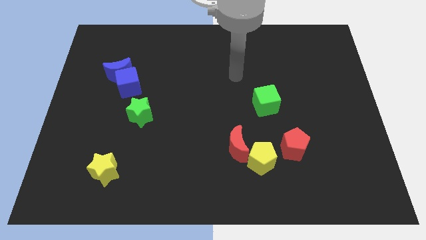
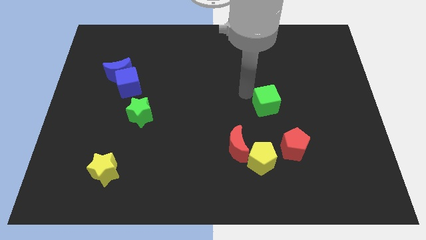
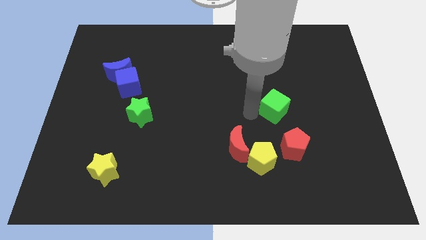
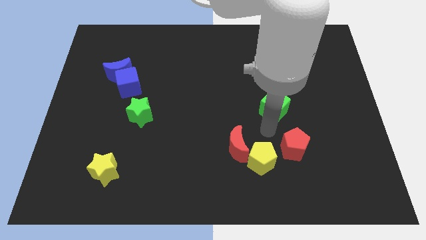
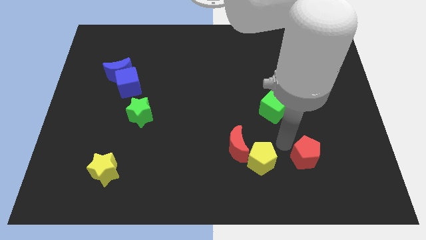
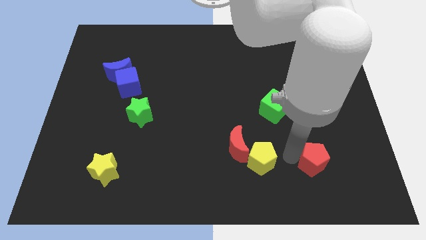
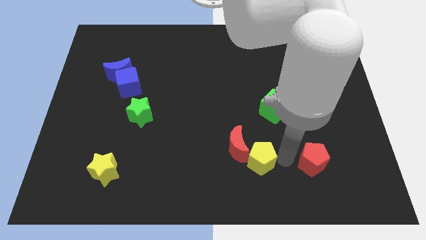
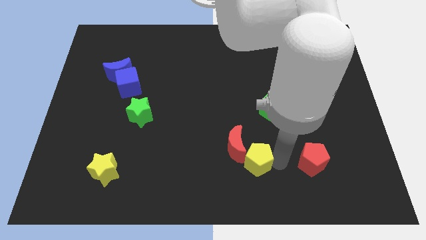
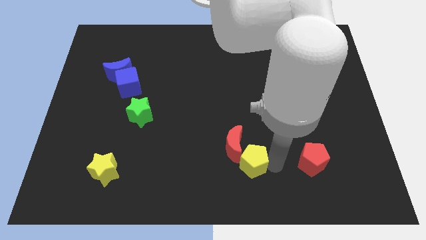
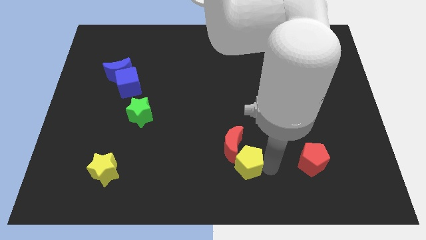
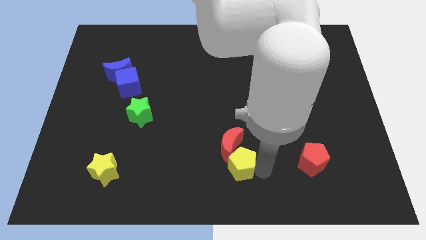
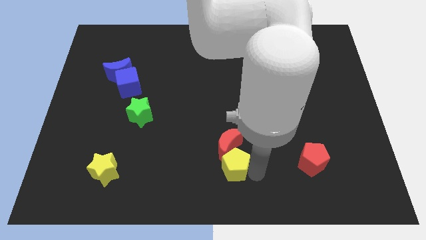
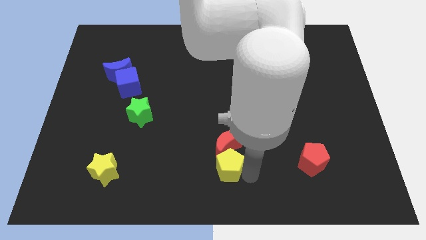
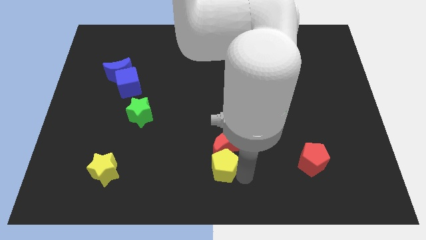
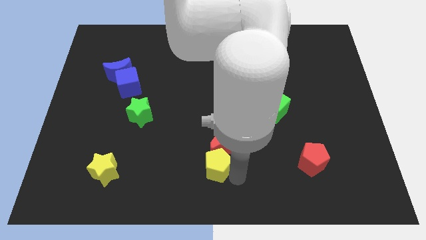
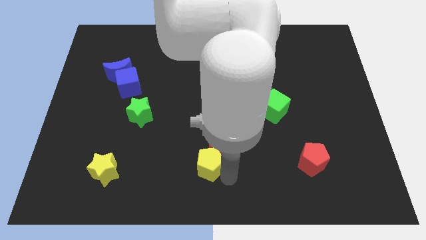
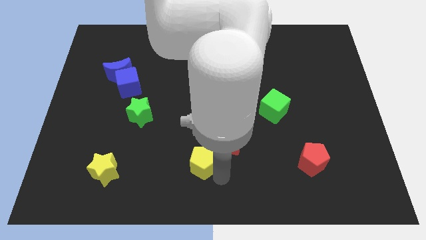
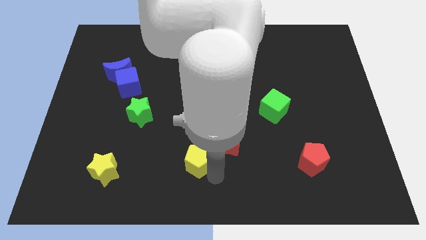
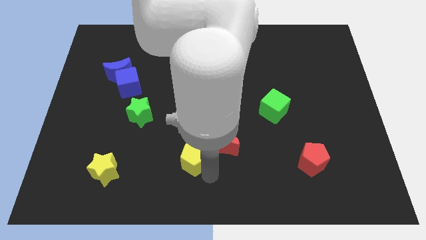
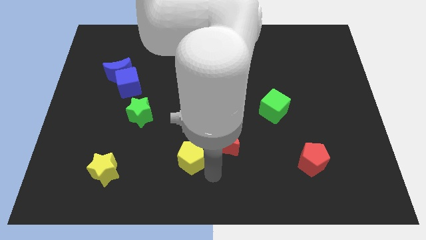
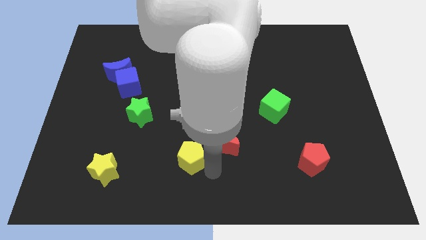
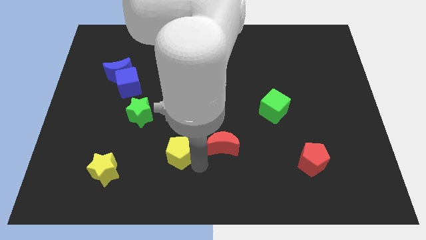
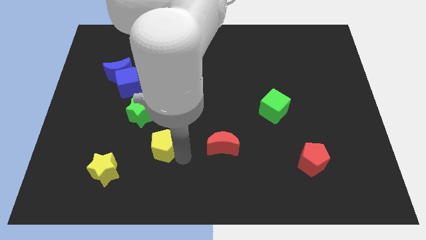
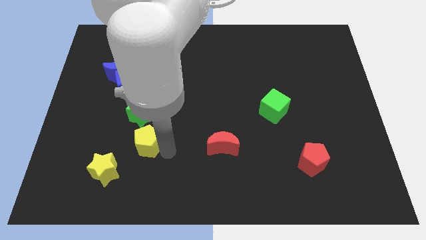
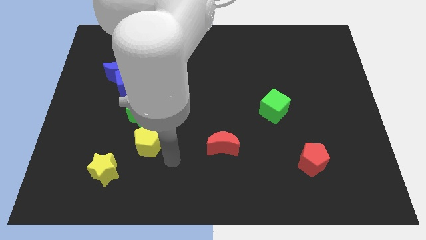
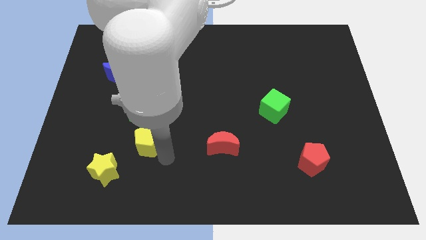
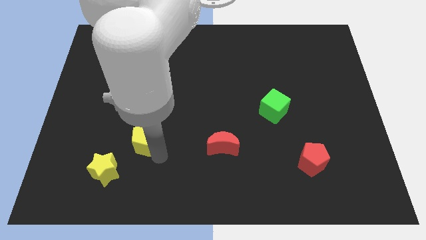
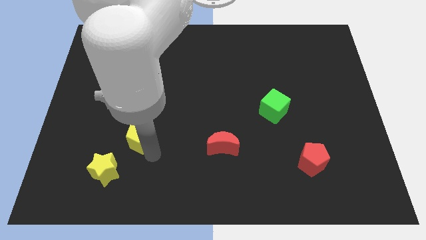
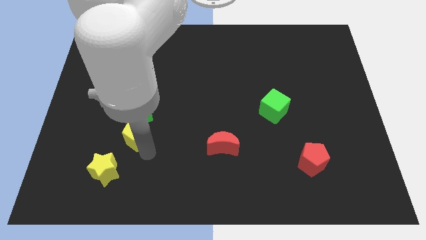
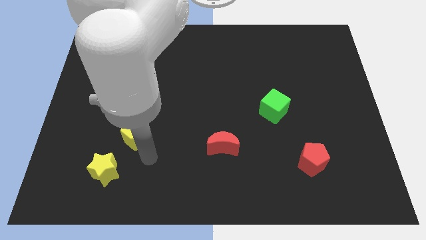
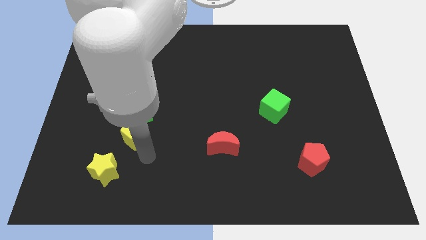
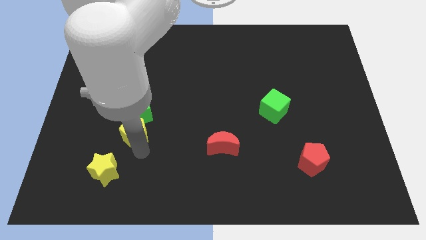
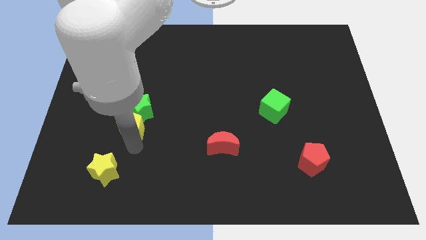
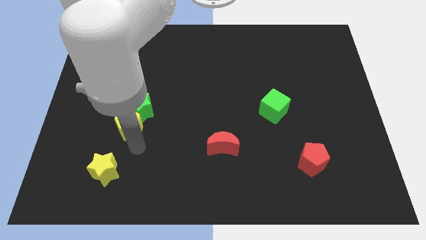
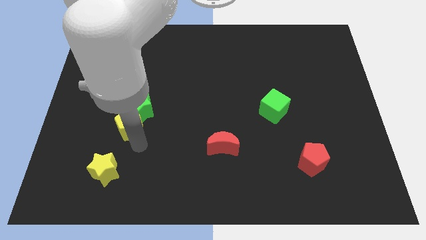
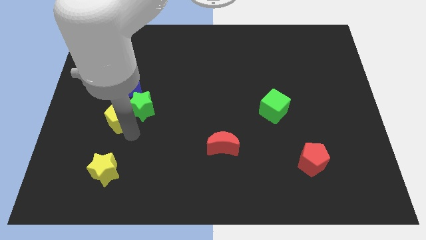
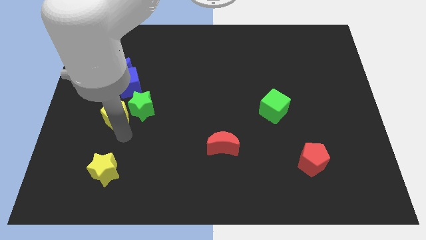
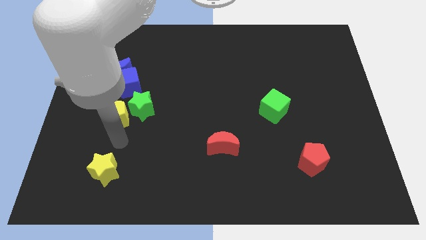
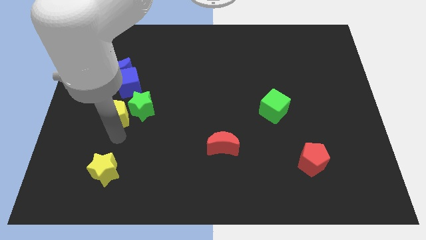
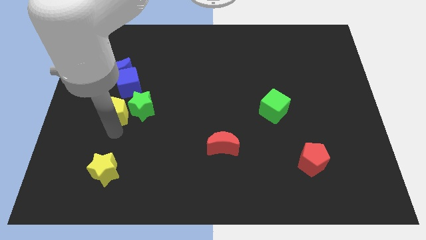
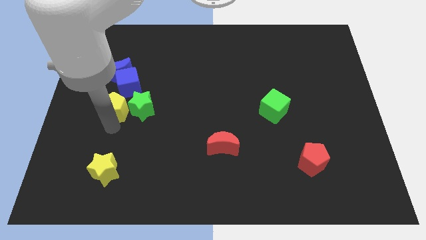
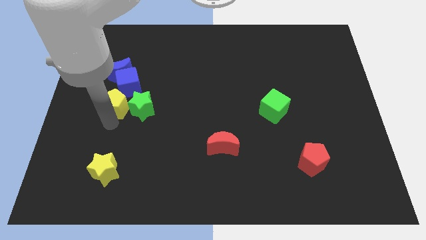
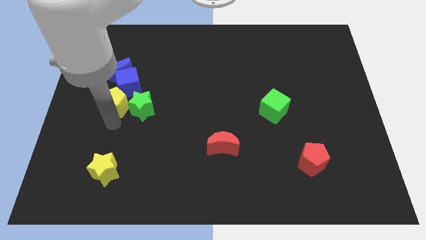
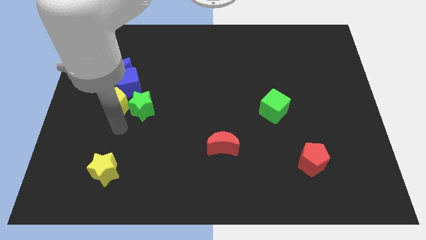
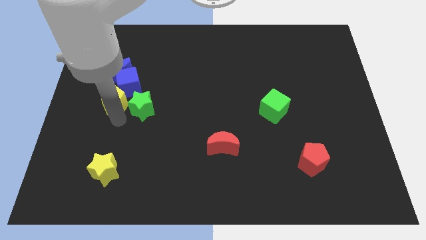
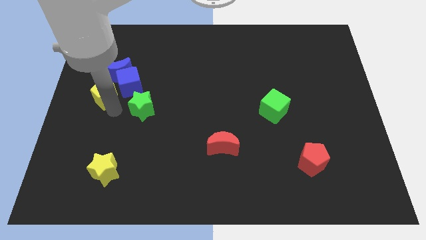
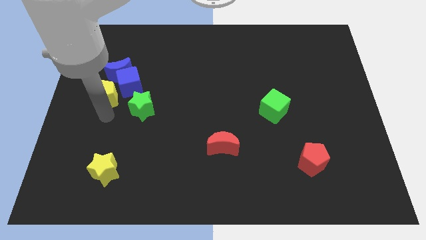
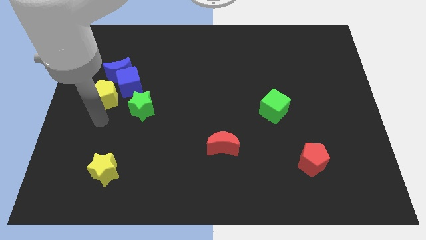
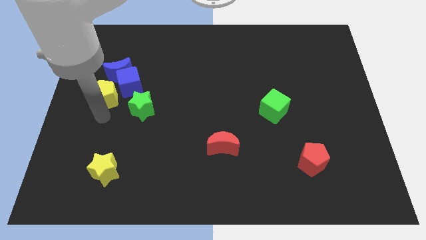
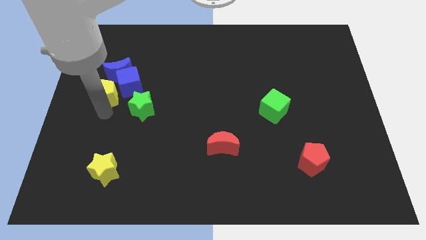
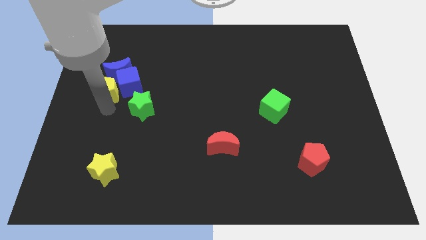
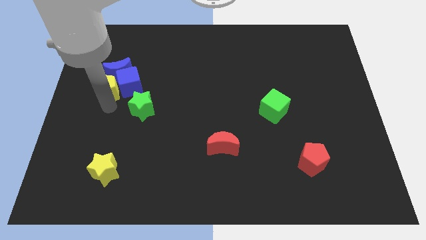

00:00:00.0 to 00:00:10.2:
move the yellow pentagon to the blue moon

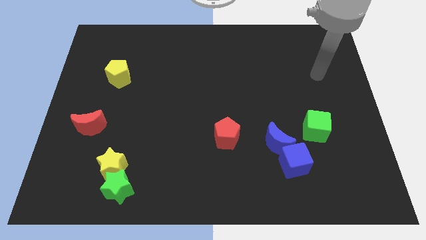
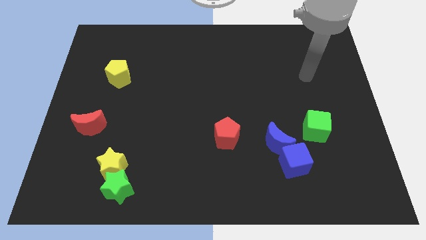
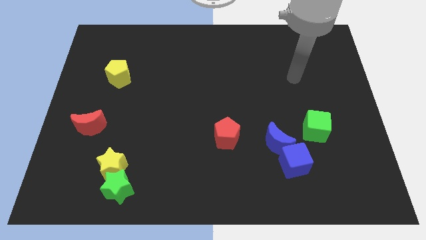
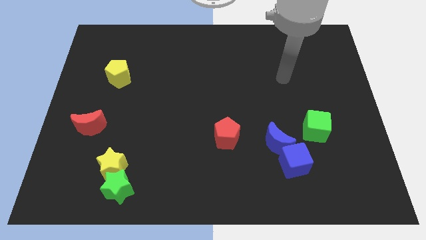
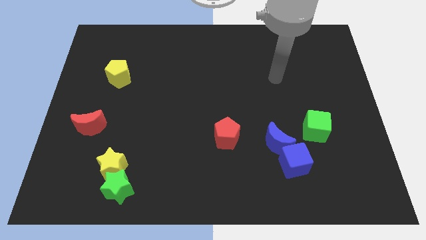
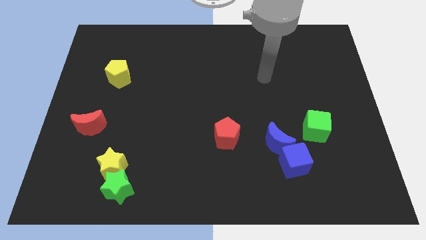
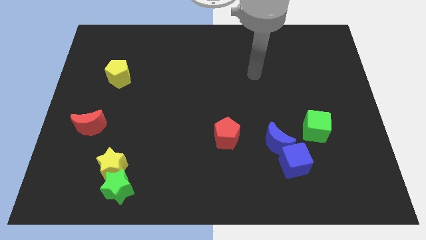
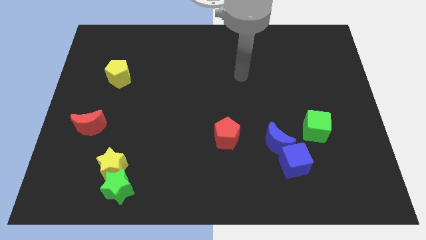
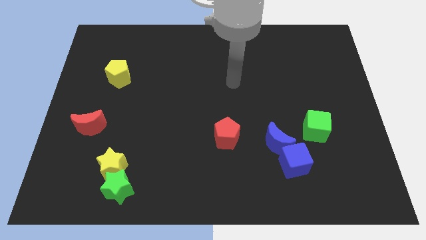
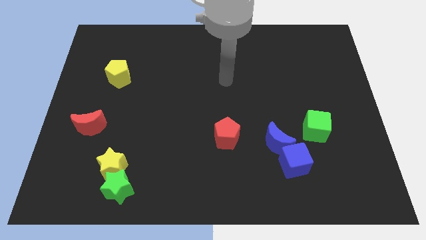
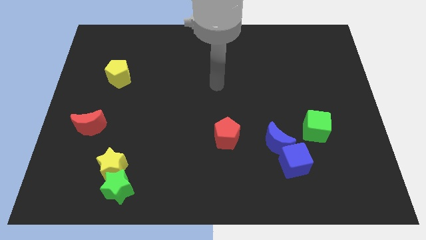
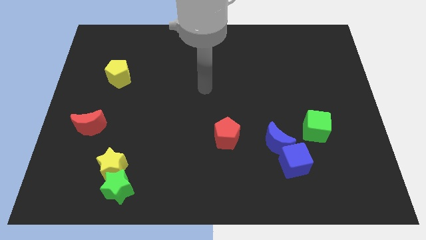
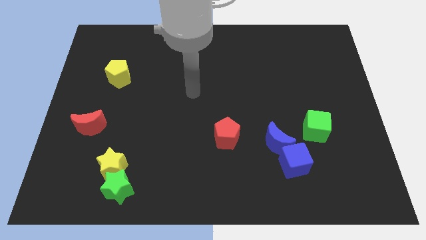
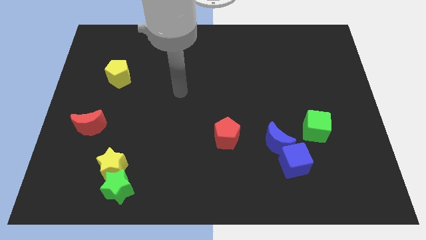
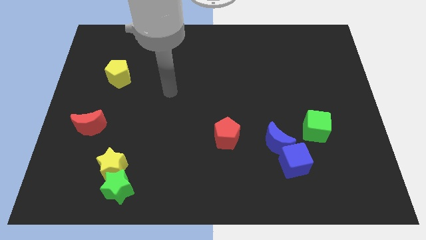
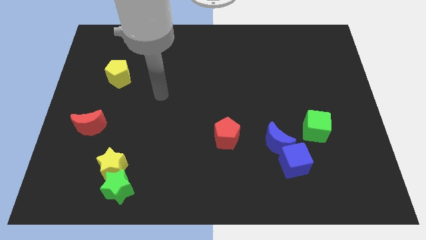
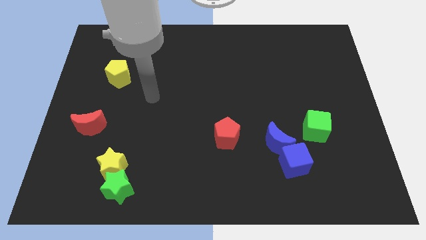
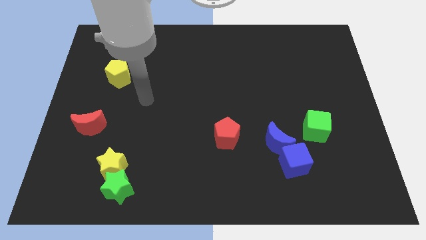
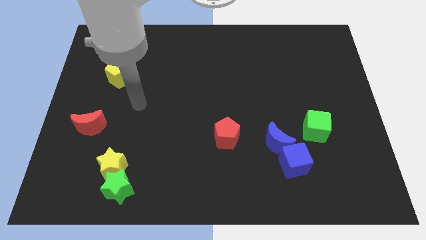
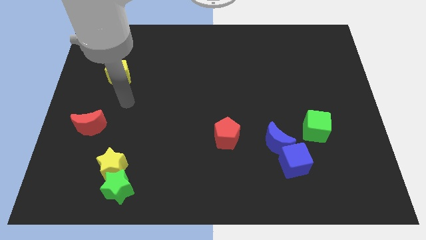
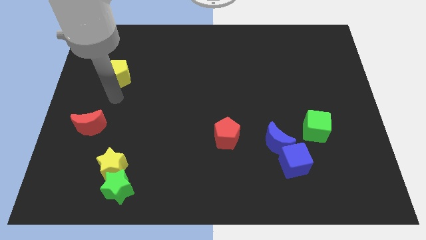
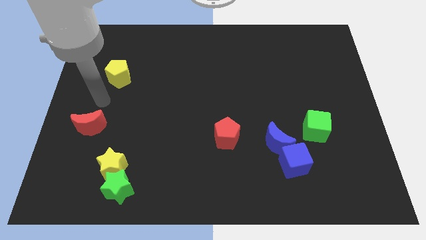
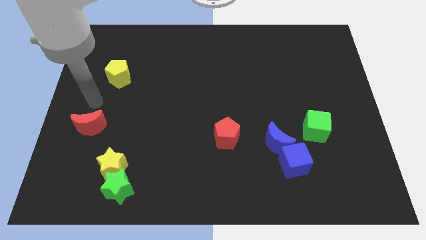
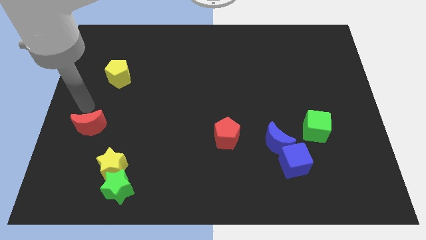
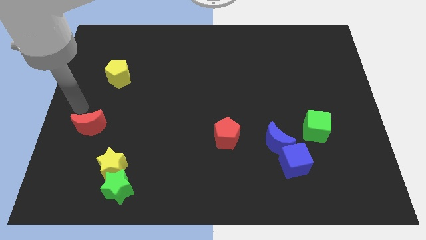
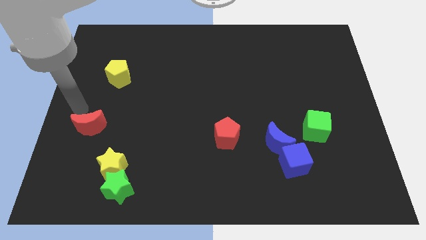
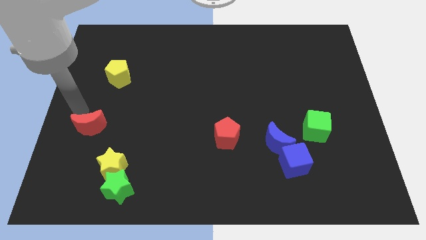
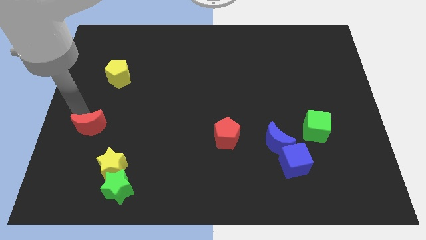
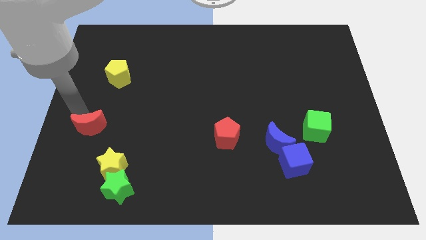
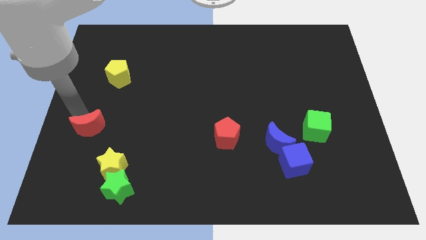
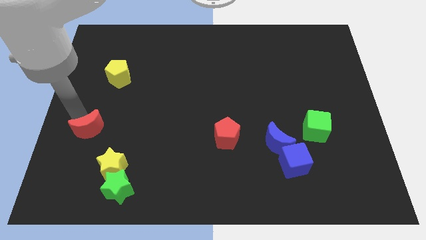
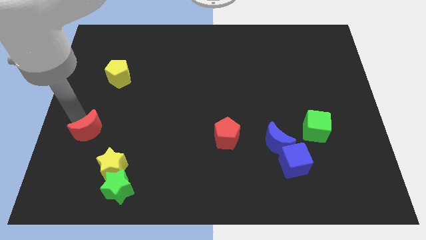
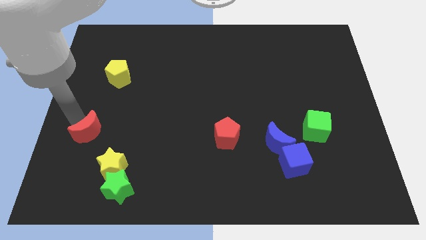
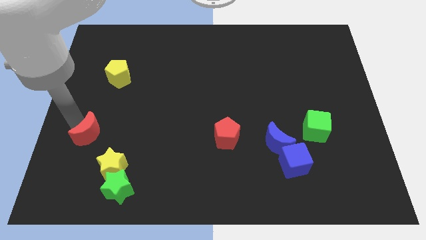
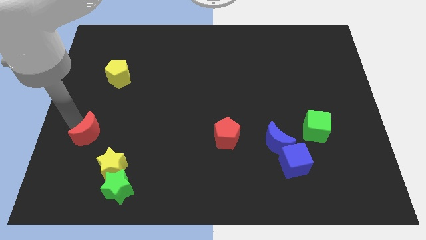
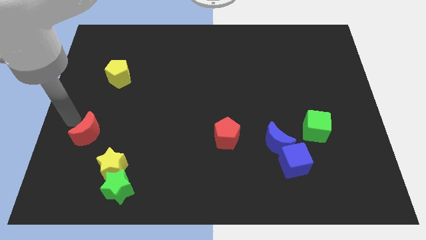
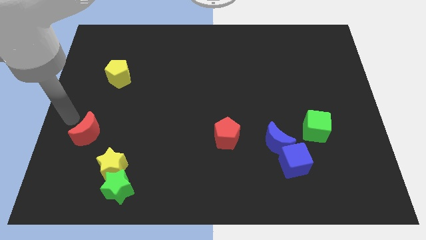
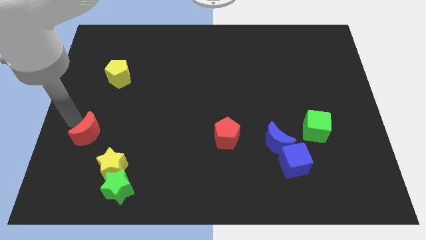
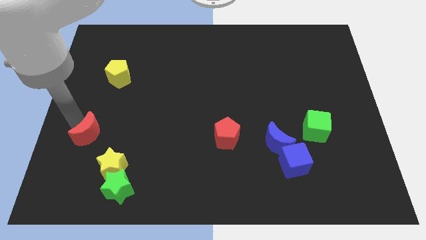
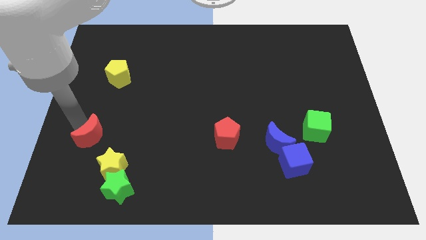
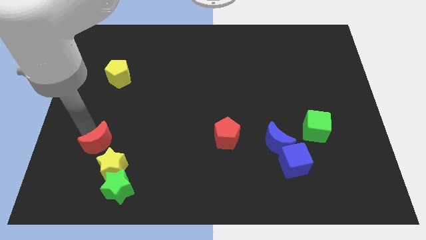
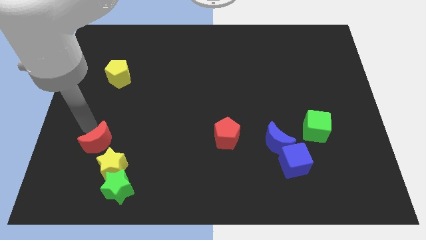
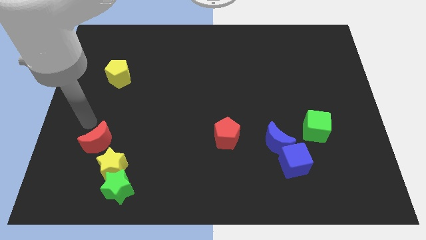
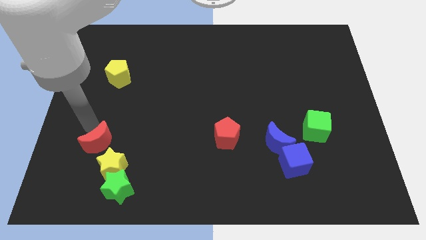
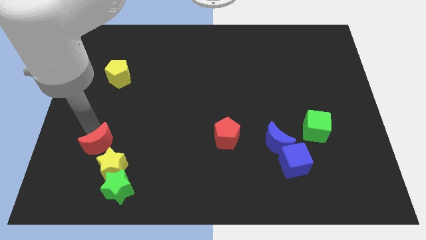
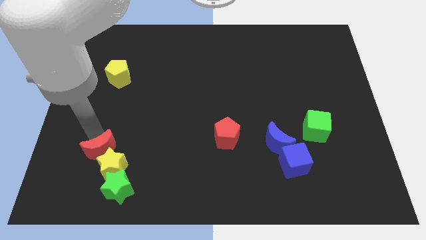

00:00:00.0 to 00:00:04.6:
push the red moon towards the yellow star
